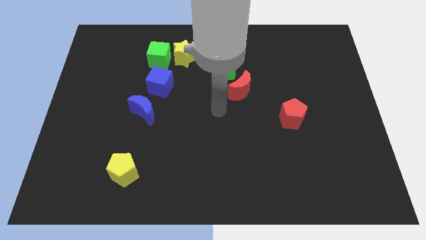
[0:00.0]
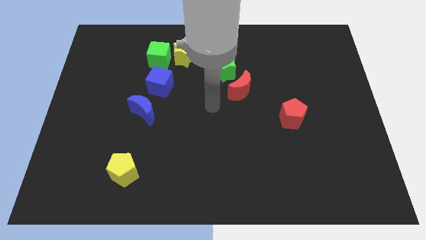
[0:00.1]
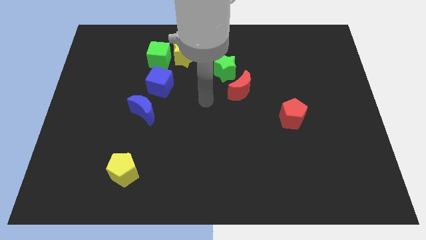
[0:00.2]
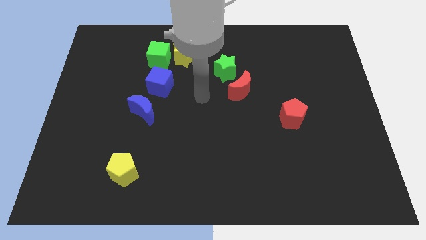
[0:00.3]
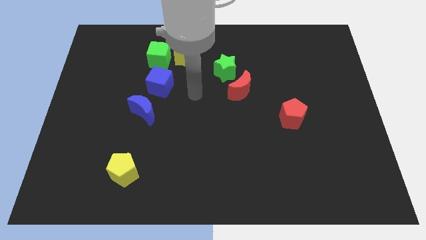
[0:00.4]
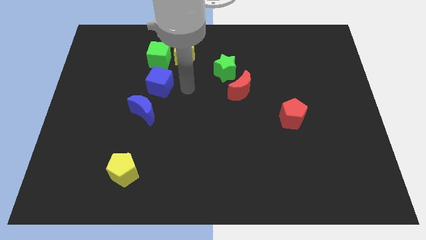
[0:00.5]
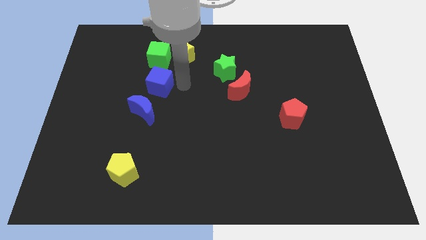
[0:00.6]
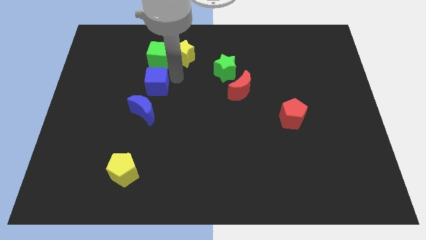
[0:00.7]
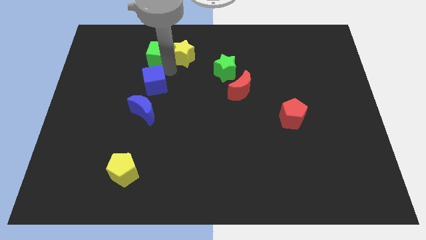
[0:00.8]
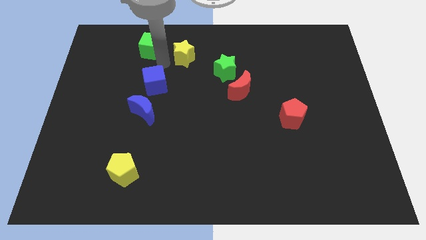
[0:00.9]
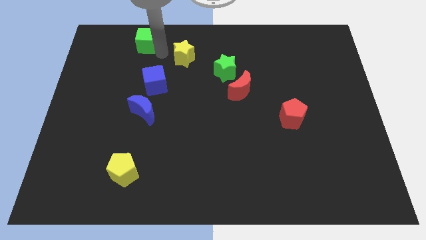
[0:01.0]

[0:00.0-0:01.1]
pull the yellow star apart from the green cube

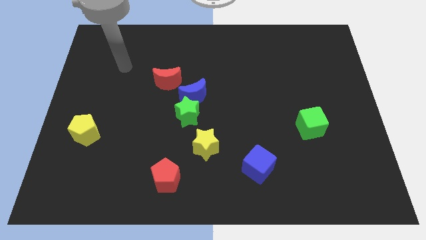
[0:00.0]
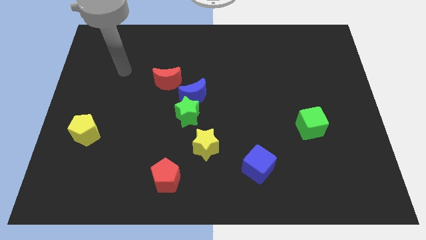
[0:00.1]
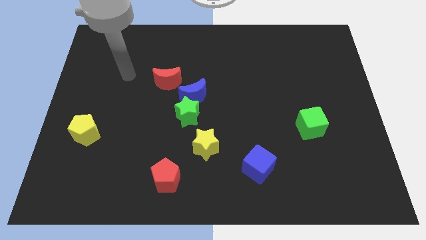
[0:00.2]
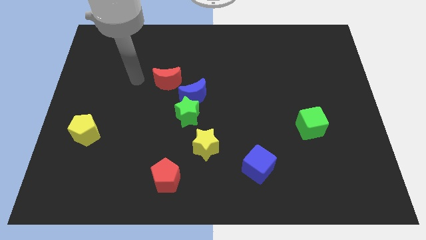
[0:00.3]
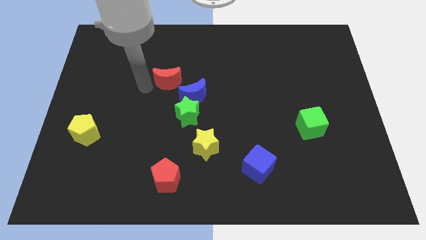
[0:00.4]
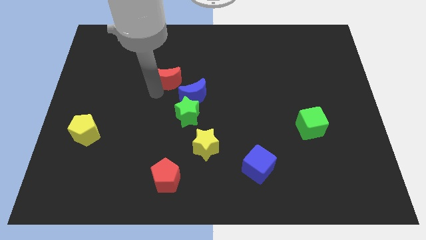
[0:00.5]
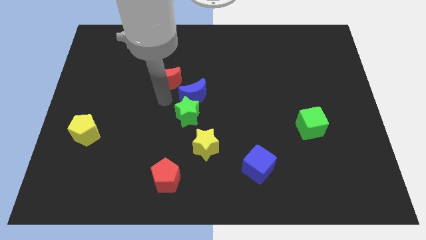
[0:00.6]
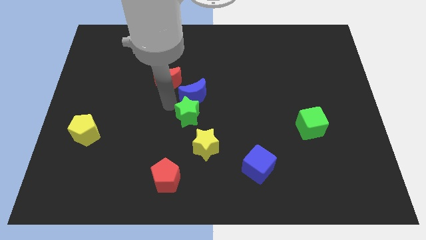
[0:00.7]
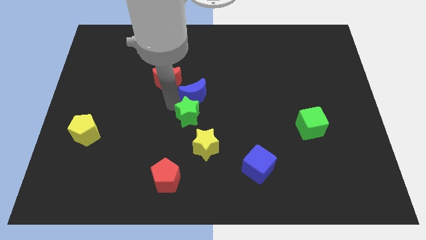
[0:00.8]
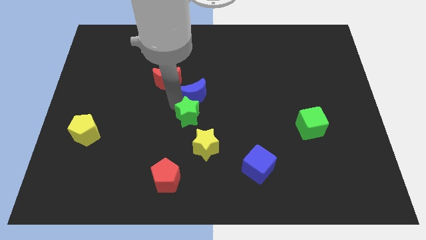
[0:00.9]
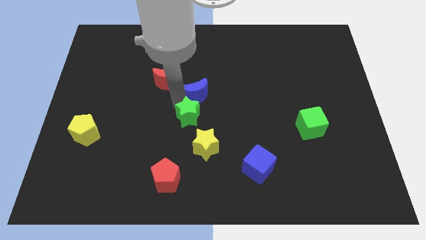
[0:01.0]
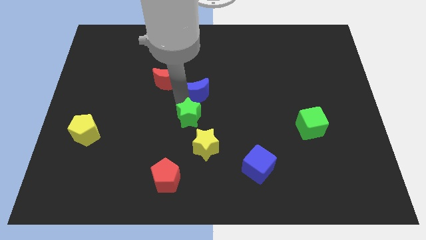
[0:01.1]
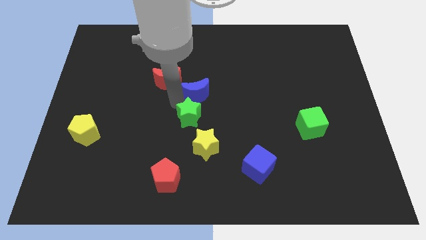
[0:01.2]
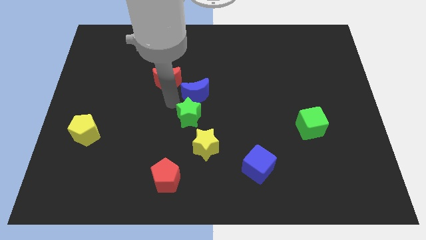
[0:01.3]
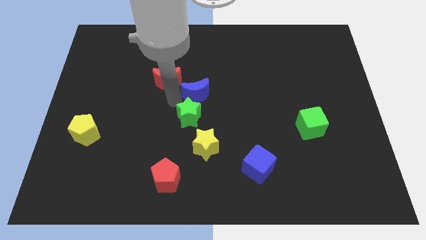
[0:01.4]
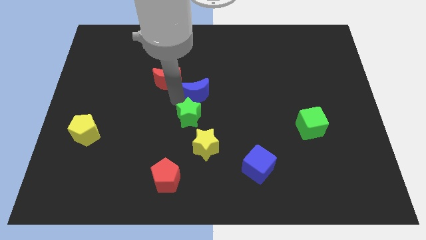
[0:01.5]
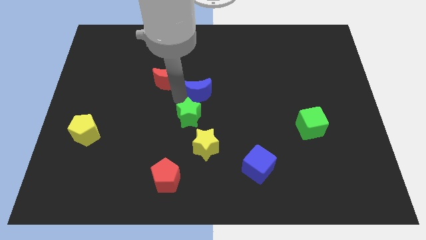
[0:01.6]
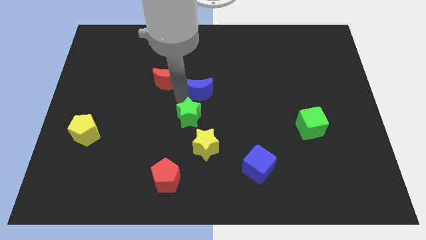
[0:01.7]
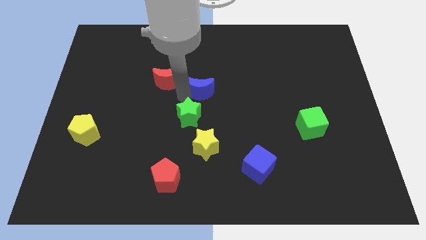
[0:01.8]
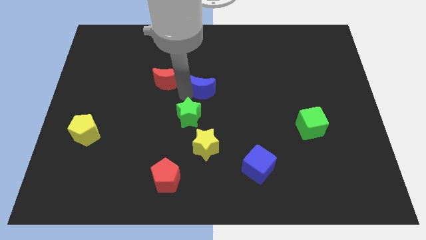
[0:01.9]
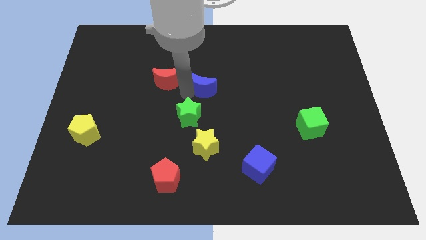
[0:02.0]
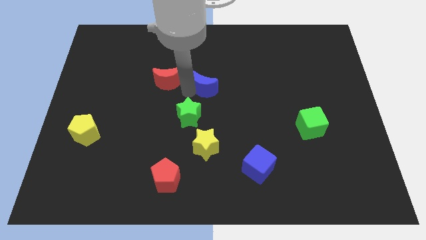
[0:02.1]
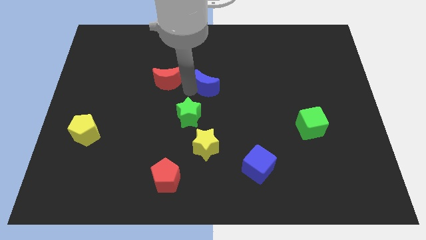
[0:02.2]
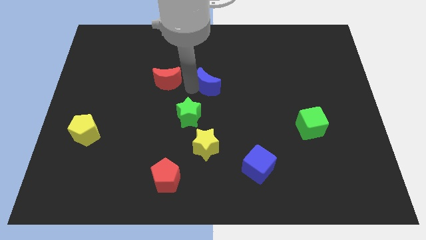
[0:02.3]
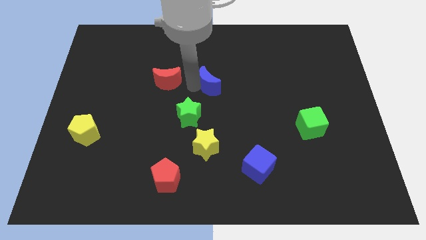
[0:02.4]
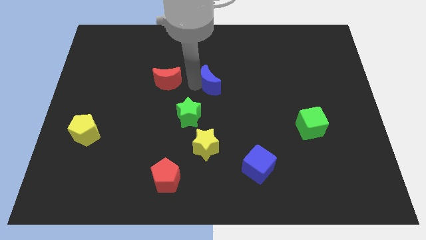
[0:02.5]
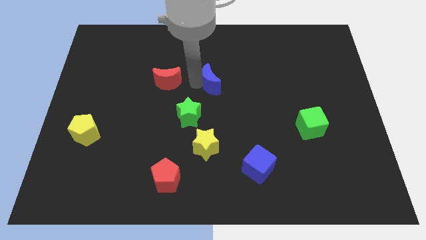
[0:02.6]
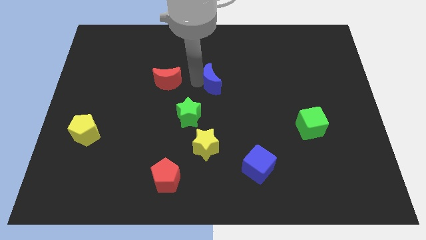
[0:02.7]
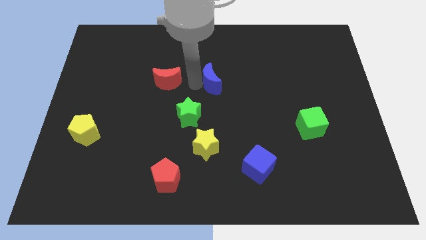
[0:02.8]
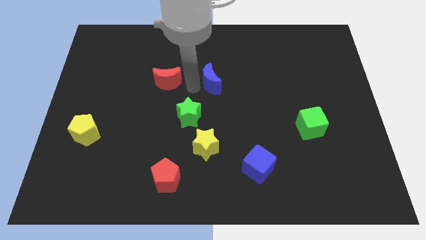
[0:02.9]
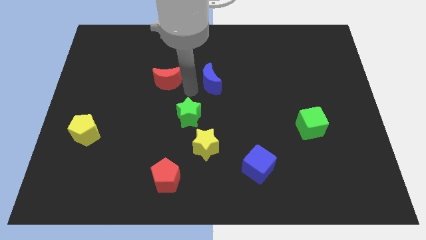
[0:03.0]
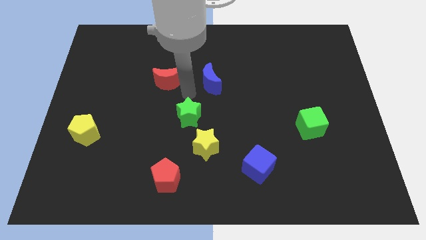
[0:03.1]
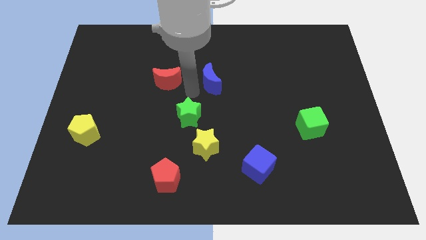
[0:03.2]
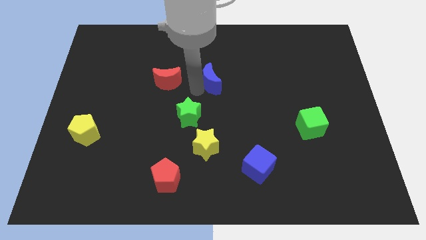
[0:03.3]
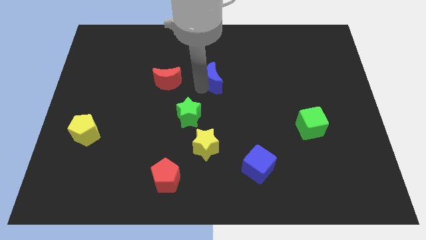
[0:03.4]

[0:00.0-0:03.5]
pull the blue moon apart from the green star and red moon

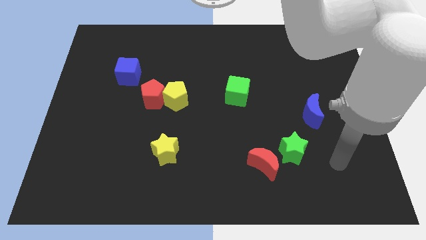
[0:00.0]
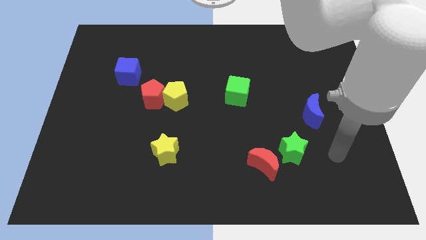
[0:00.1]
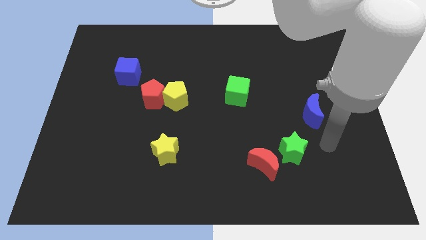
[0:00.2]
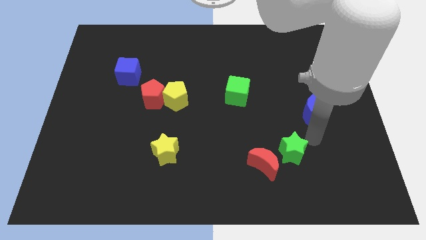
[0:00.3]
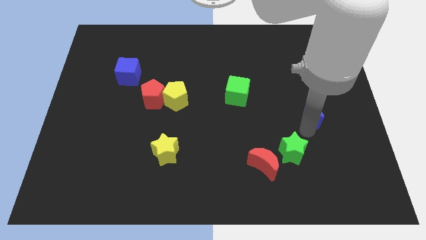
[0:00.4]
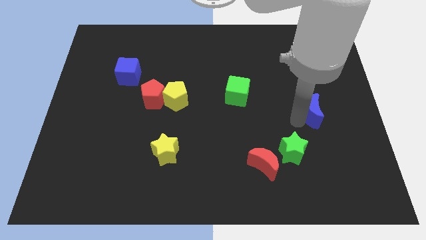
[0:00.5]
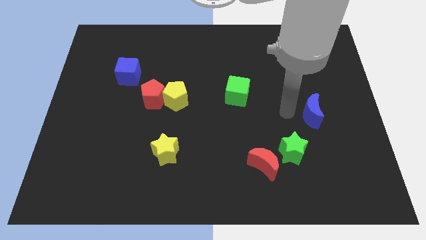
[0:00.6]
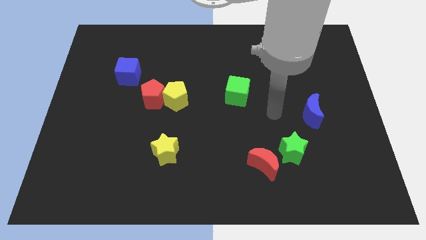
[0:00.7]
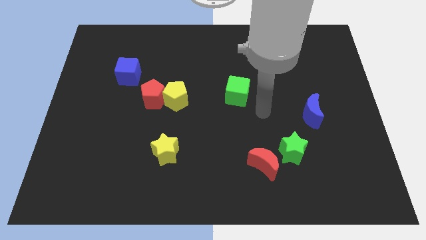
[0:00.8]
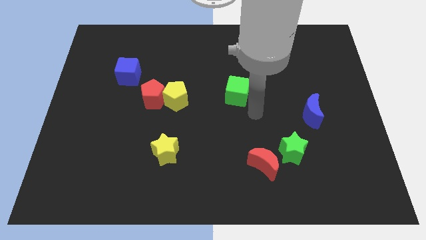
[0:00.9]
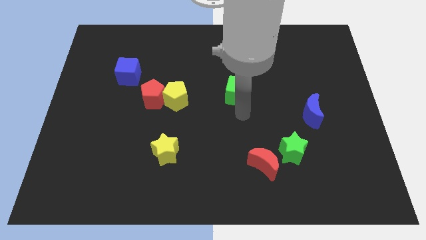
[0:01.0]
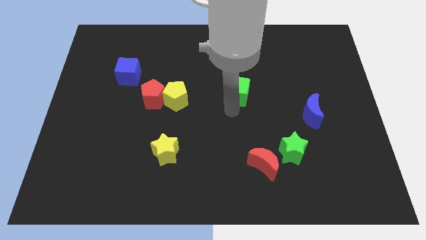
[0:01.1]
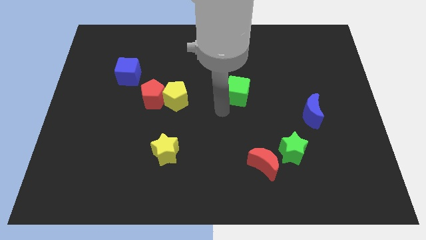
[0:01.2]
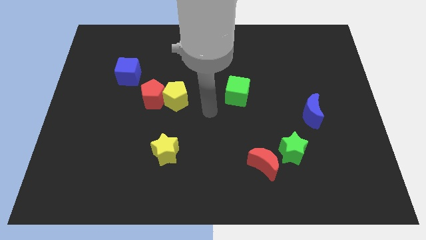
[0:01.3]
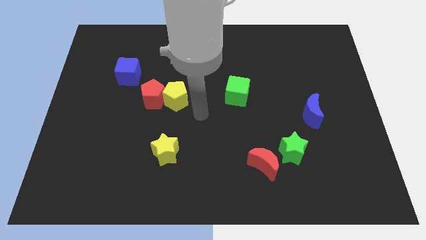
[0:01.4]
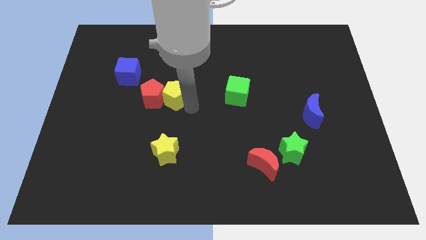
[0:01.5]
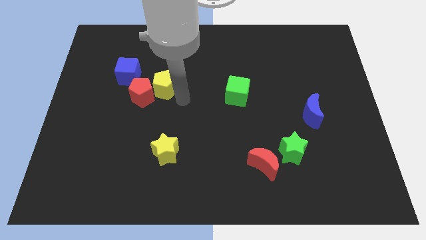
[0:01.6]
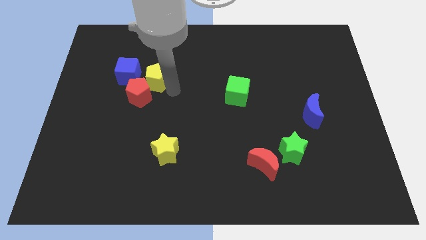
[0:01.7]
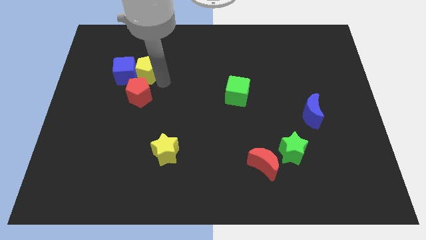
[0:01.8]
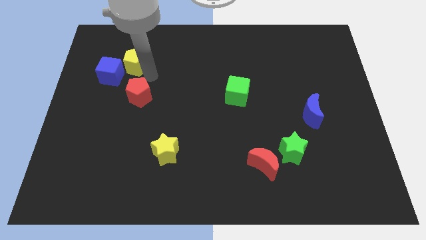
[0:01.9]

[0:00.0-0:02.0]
move the red pentagon away from the yellow pentagon

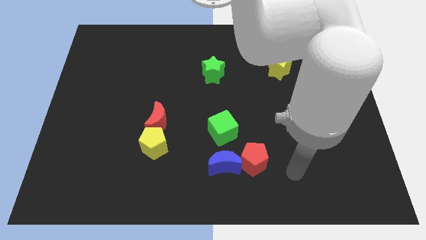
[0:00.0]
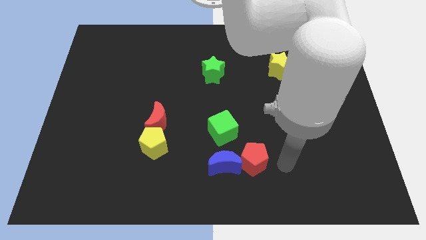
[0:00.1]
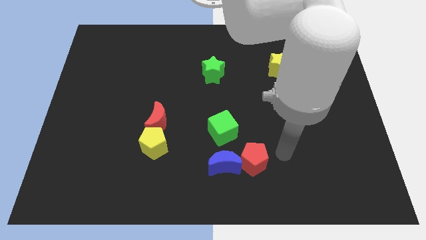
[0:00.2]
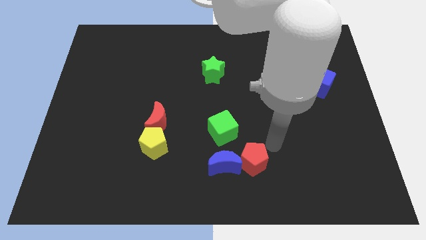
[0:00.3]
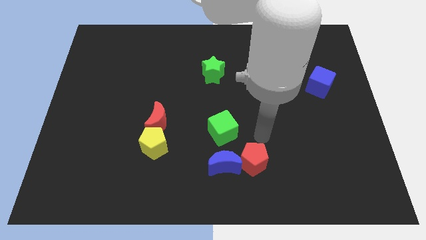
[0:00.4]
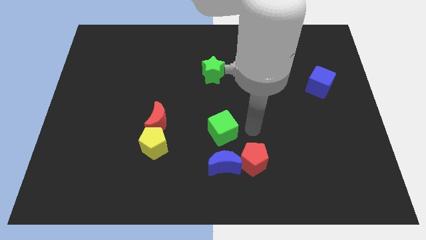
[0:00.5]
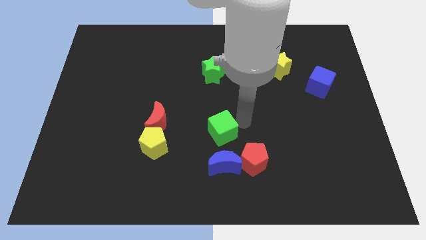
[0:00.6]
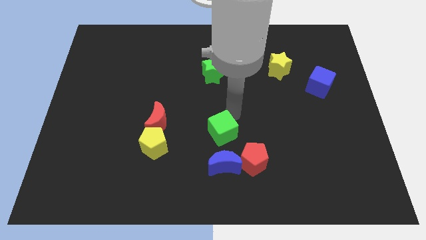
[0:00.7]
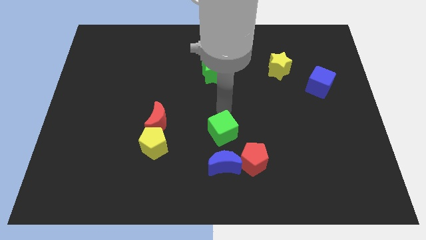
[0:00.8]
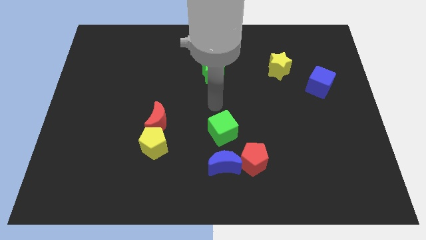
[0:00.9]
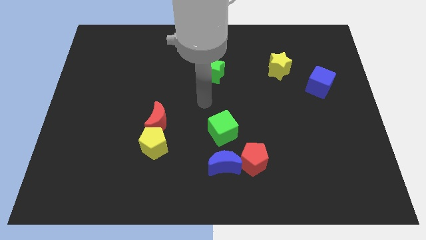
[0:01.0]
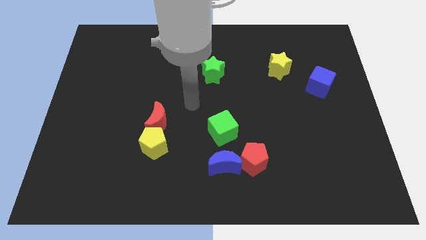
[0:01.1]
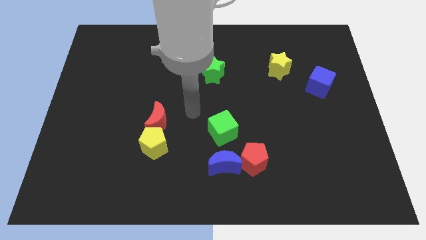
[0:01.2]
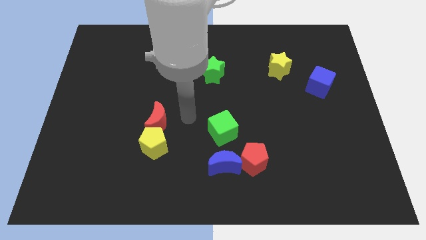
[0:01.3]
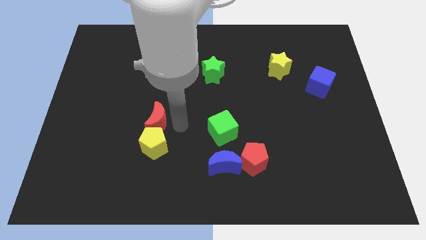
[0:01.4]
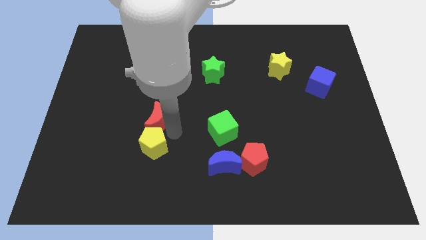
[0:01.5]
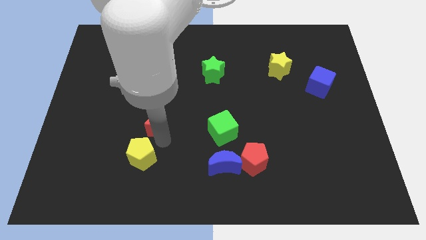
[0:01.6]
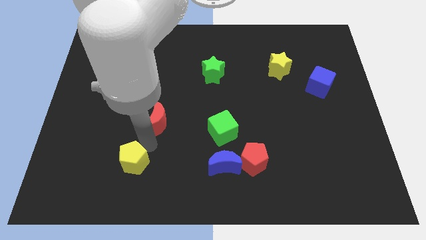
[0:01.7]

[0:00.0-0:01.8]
pull the red moon apart from the yellow pentagon

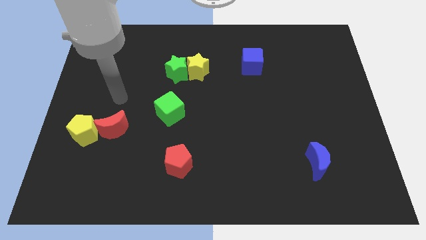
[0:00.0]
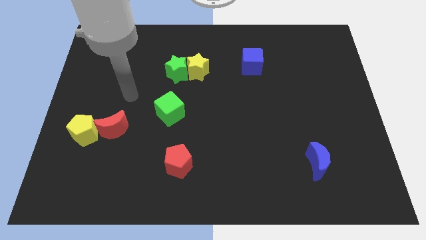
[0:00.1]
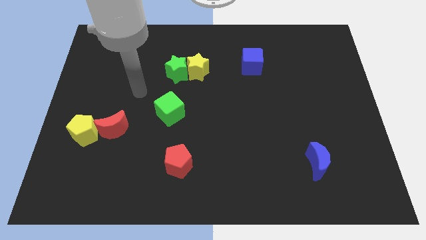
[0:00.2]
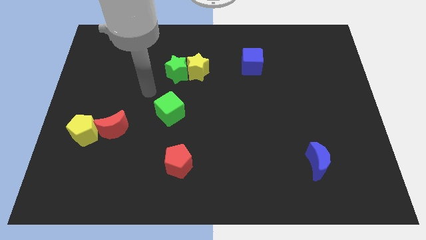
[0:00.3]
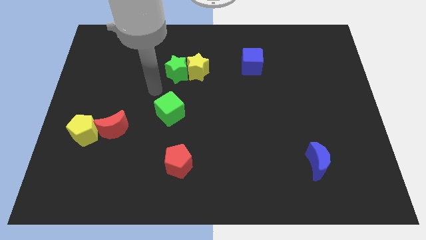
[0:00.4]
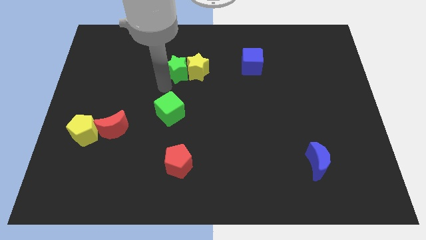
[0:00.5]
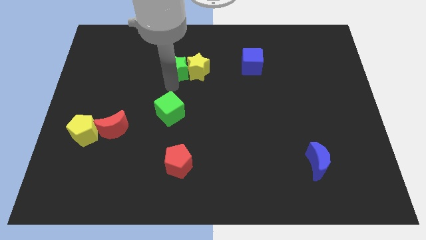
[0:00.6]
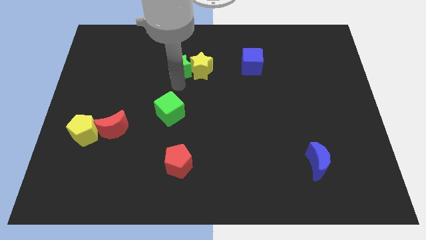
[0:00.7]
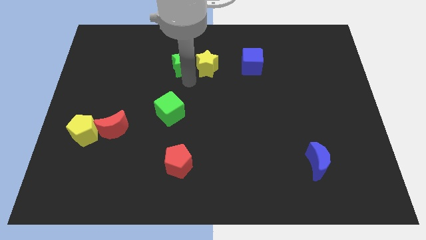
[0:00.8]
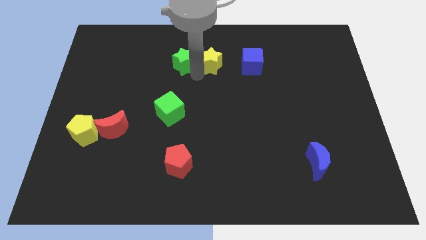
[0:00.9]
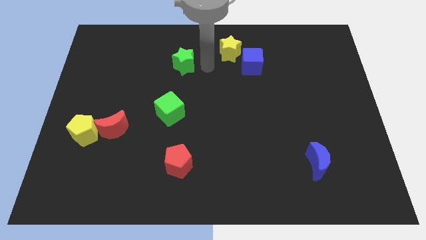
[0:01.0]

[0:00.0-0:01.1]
move the green star away from the yellow star
